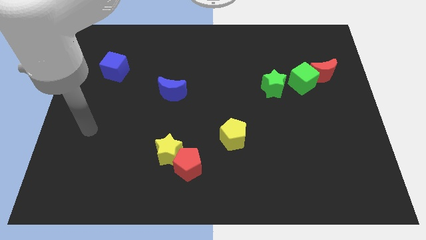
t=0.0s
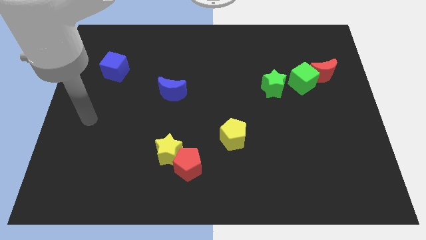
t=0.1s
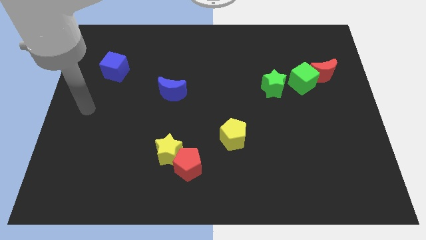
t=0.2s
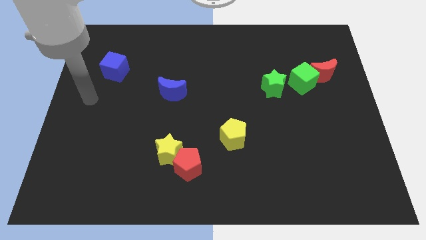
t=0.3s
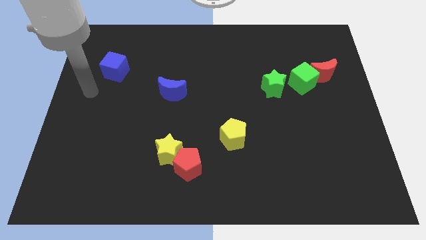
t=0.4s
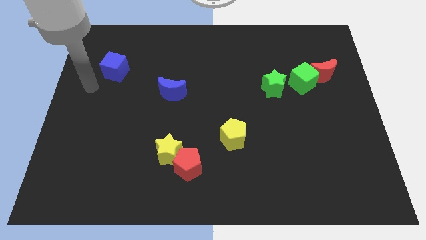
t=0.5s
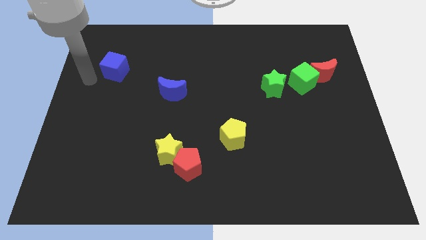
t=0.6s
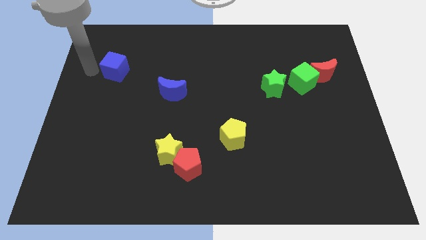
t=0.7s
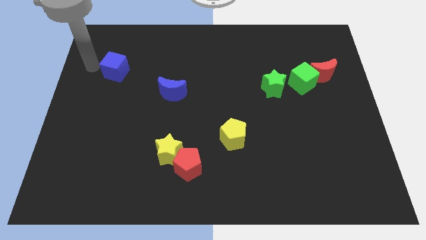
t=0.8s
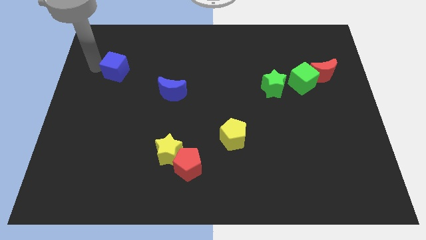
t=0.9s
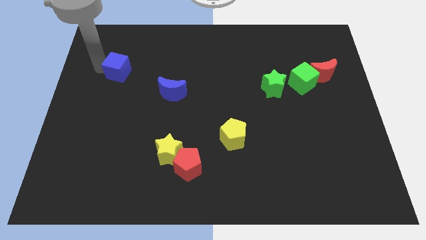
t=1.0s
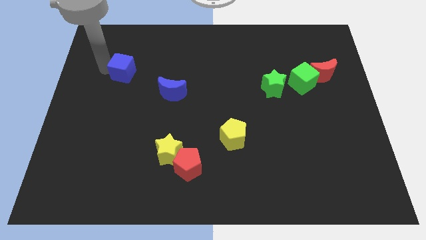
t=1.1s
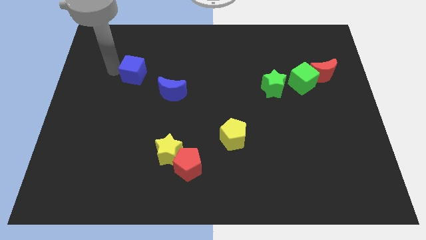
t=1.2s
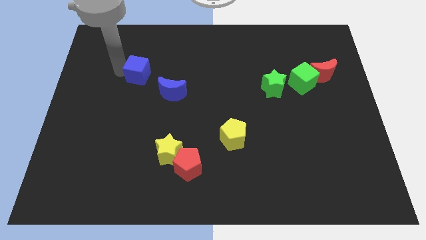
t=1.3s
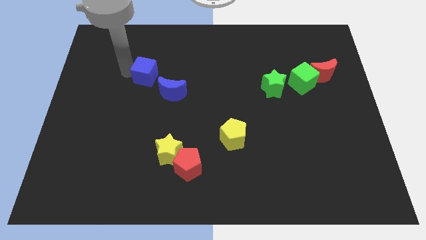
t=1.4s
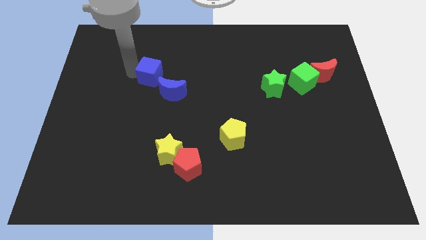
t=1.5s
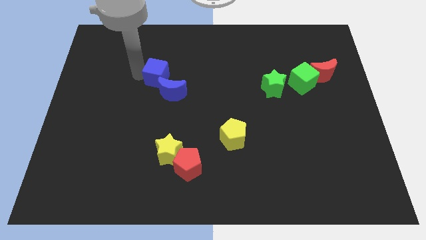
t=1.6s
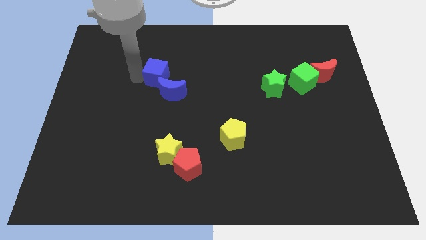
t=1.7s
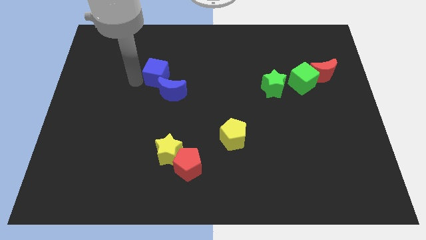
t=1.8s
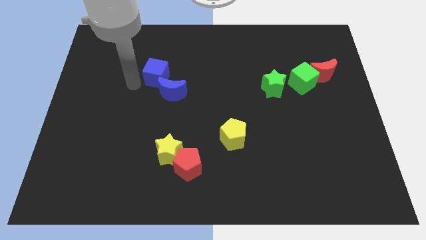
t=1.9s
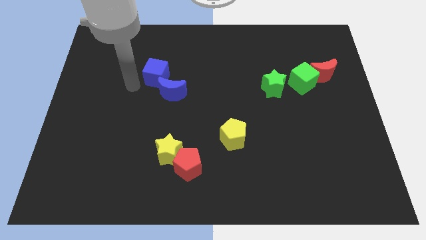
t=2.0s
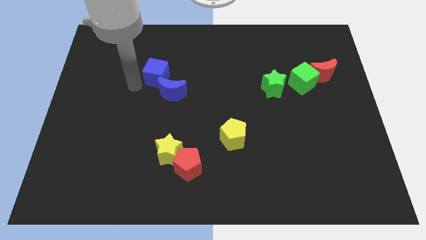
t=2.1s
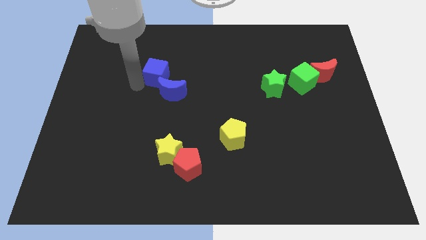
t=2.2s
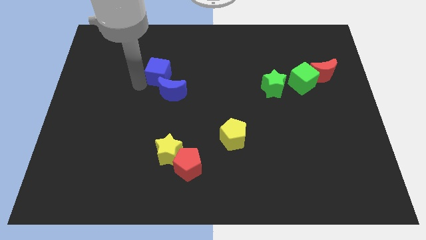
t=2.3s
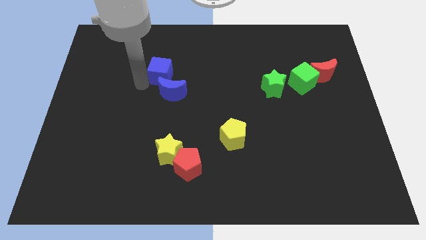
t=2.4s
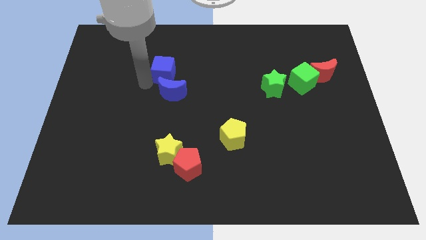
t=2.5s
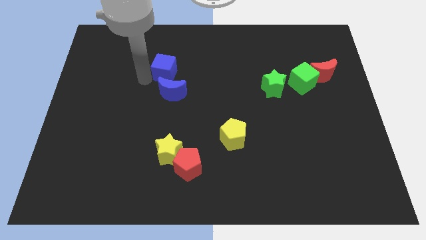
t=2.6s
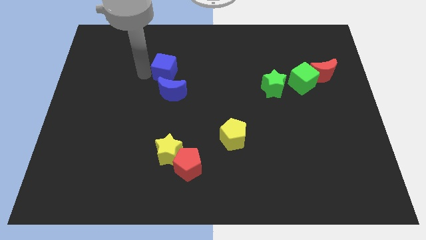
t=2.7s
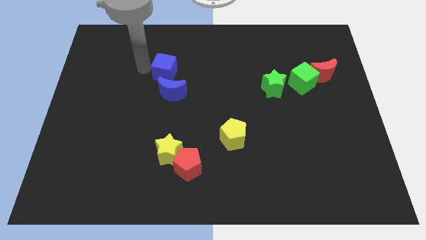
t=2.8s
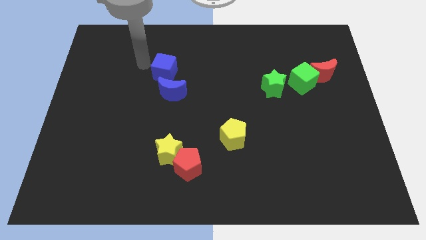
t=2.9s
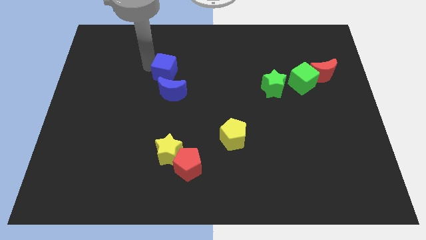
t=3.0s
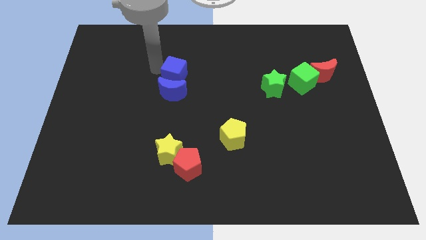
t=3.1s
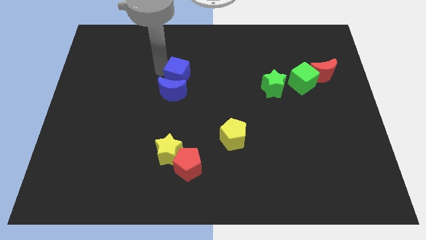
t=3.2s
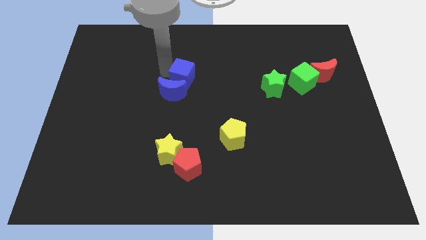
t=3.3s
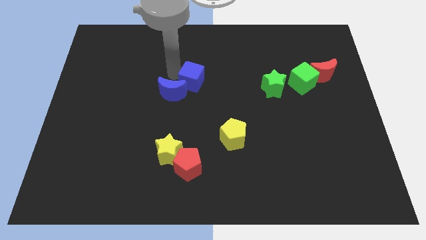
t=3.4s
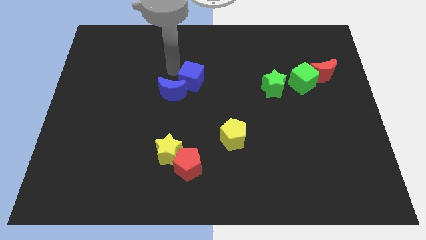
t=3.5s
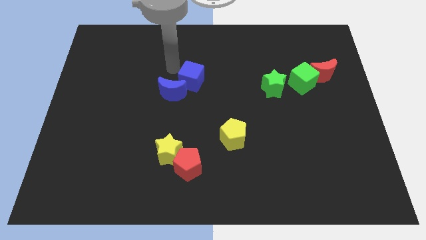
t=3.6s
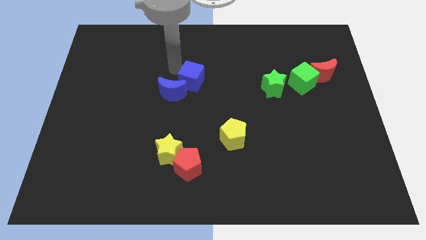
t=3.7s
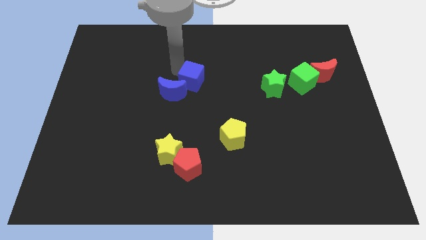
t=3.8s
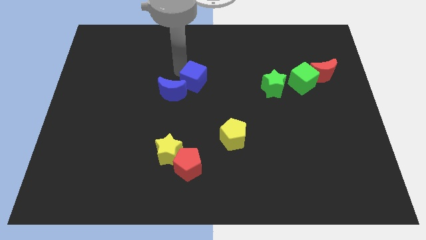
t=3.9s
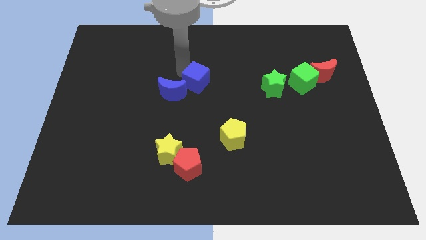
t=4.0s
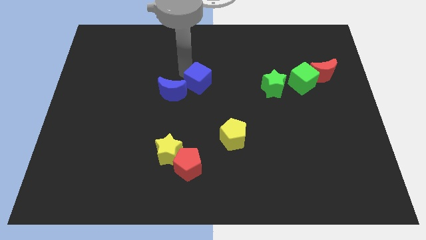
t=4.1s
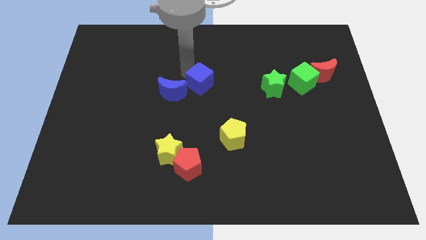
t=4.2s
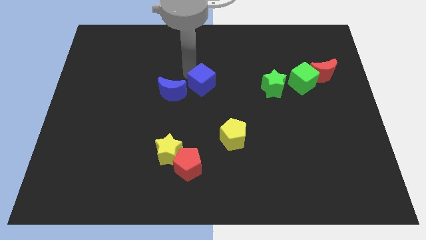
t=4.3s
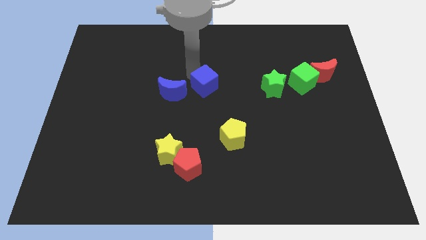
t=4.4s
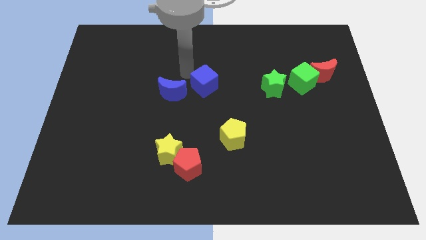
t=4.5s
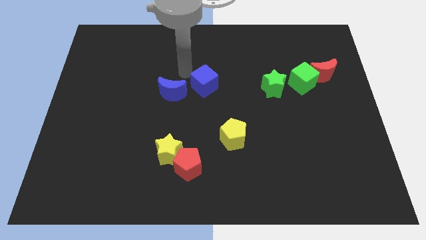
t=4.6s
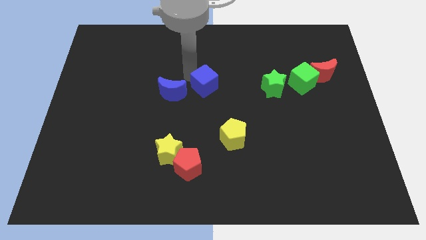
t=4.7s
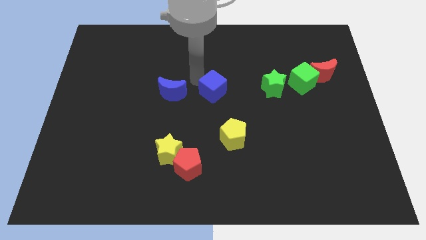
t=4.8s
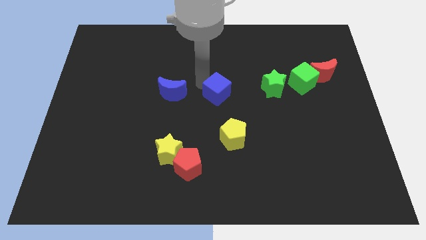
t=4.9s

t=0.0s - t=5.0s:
move the blue cube to the top side of the yellow pentagon

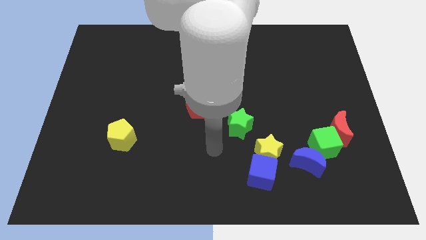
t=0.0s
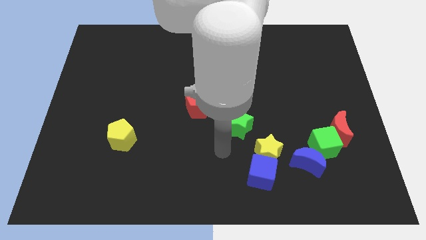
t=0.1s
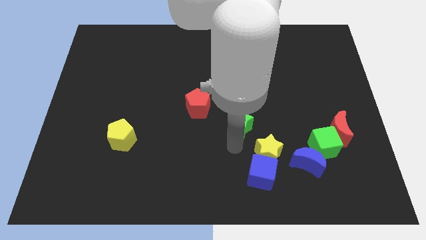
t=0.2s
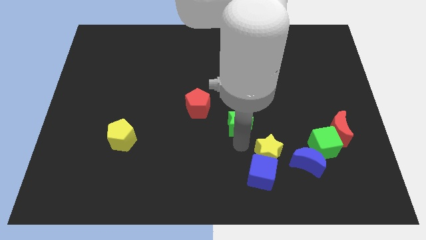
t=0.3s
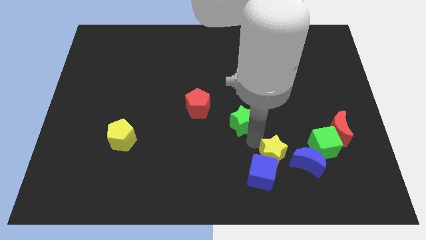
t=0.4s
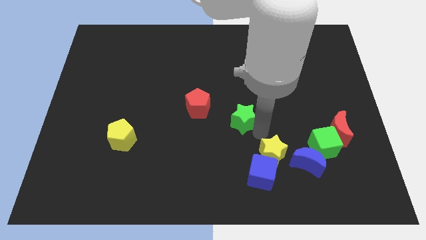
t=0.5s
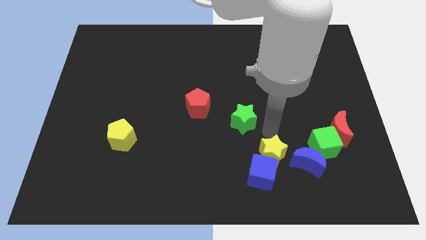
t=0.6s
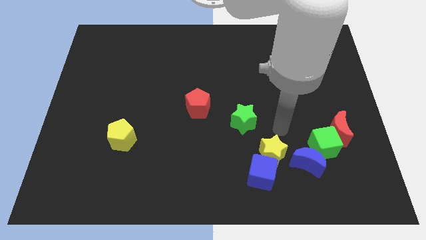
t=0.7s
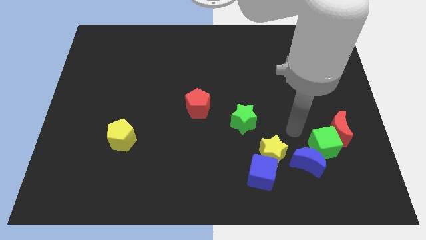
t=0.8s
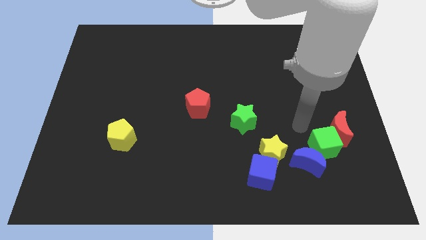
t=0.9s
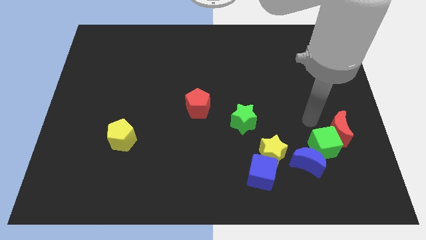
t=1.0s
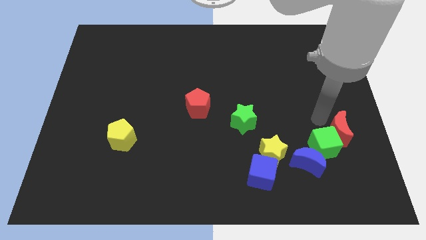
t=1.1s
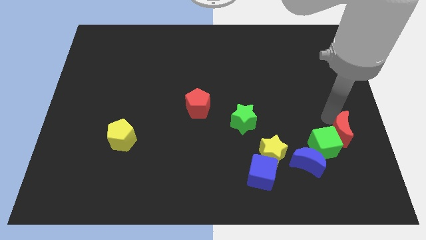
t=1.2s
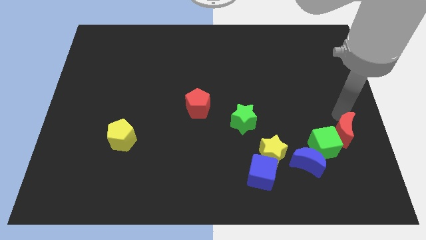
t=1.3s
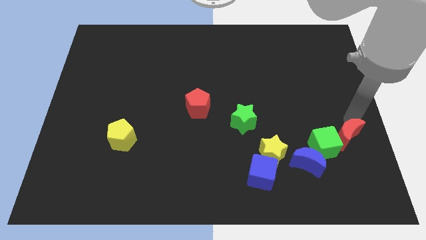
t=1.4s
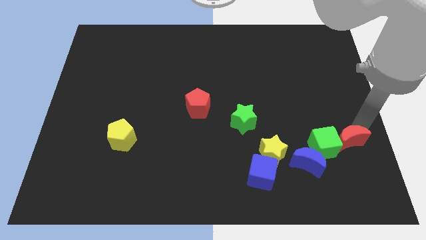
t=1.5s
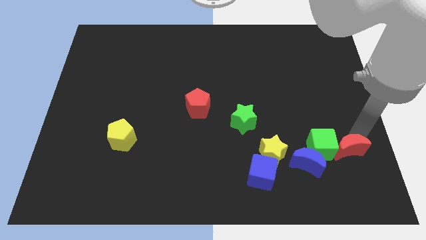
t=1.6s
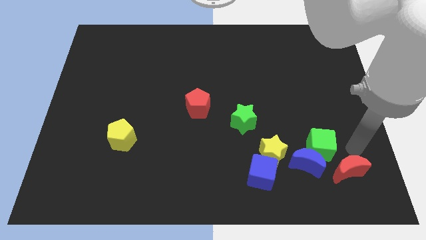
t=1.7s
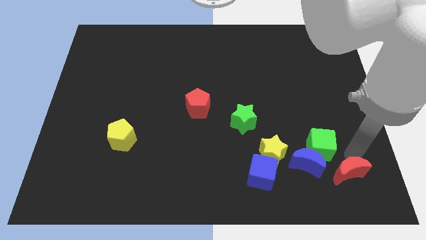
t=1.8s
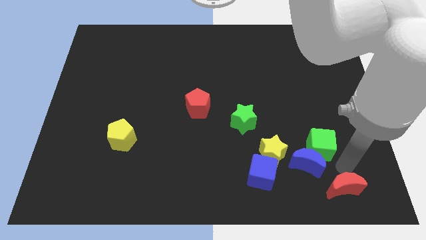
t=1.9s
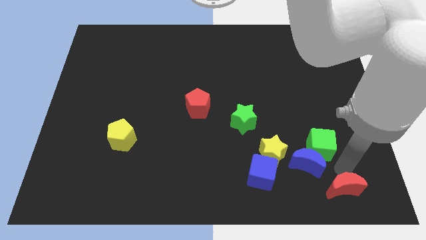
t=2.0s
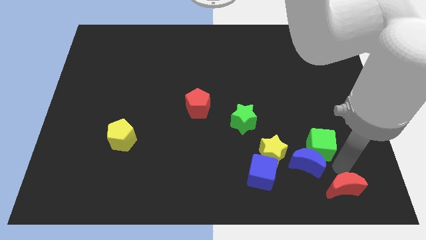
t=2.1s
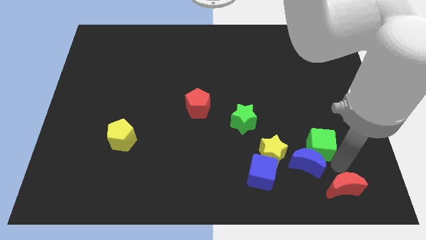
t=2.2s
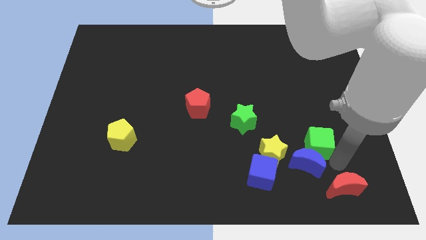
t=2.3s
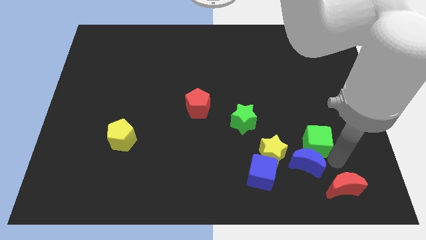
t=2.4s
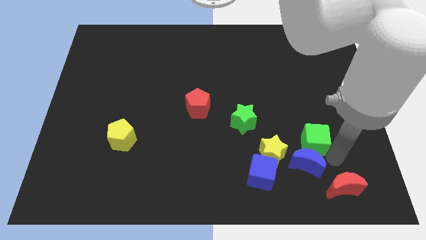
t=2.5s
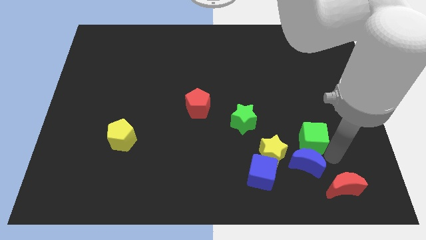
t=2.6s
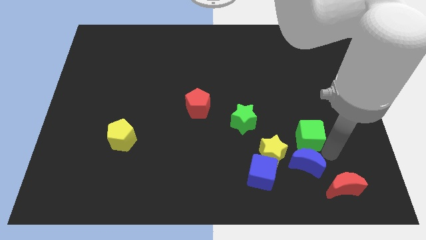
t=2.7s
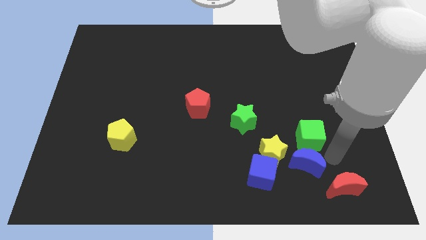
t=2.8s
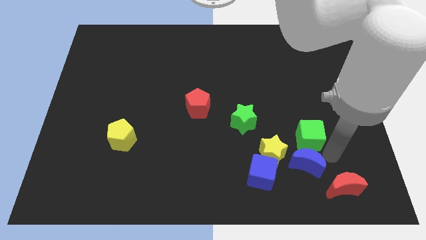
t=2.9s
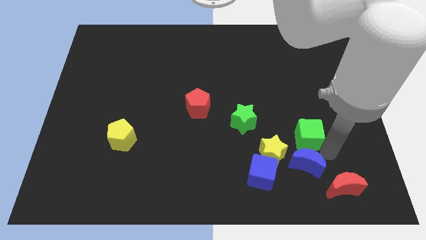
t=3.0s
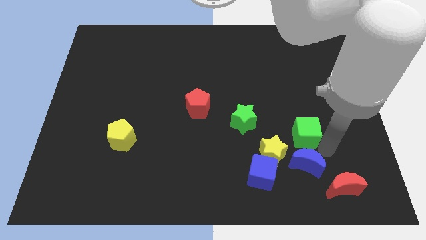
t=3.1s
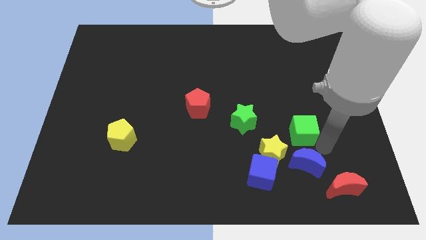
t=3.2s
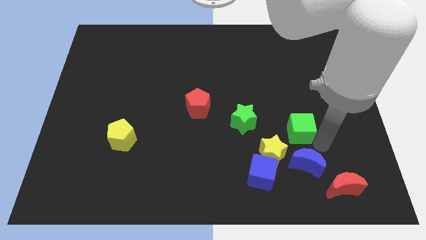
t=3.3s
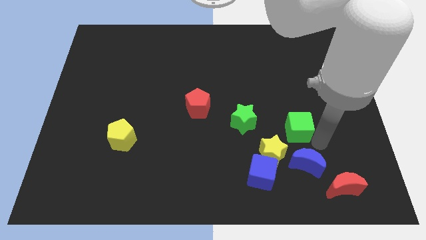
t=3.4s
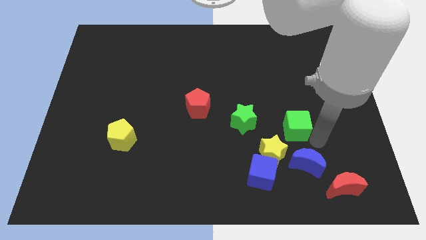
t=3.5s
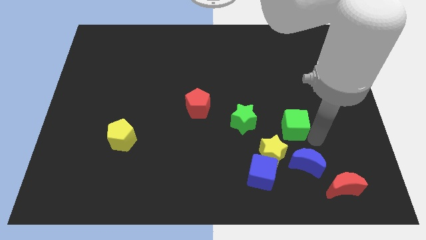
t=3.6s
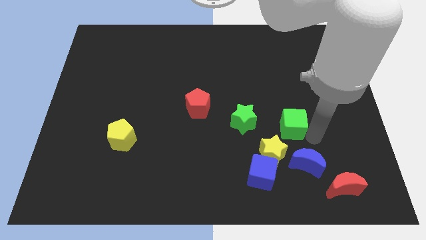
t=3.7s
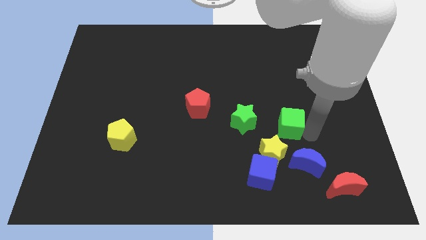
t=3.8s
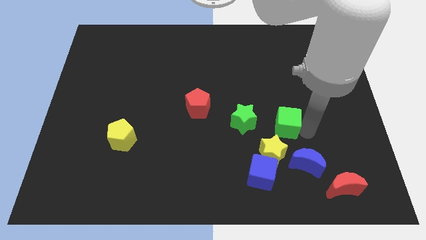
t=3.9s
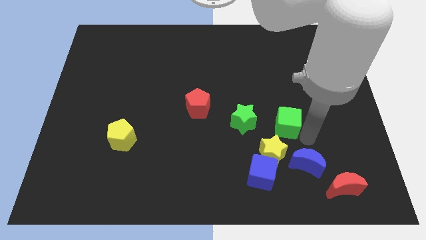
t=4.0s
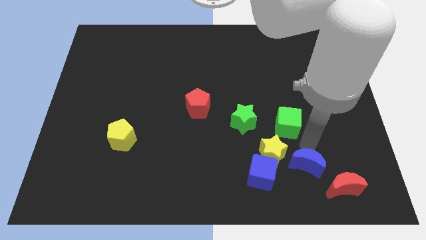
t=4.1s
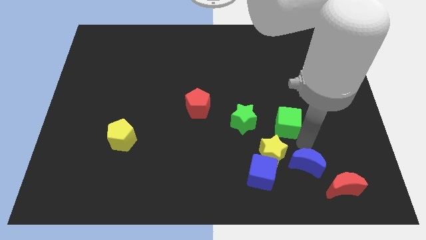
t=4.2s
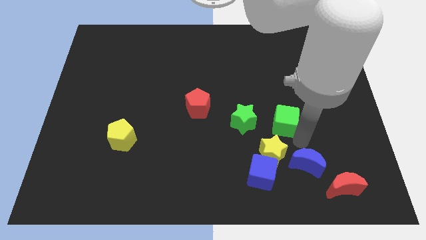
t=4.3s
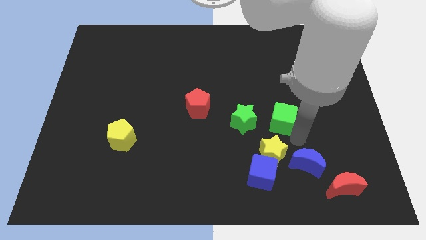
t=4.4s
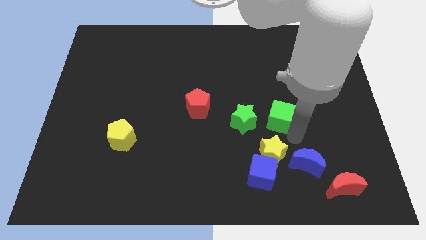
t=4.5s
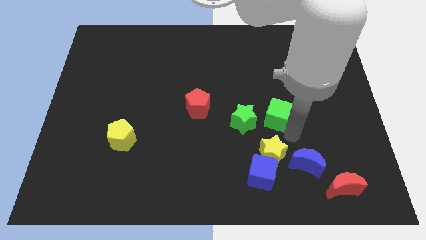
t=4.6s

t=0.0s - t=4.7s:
move the green cube diagonally up and to the right of the green star
